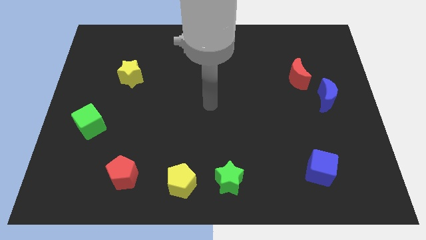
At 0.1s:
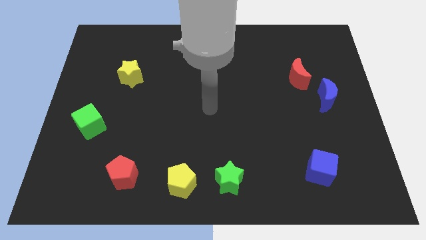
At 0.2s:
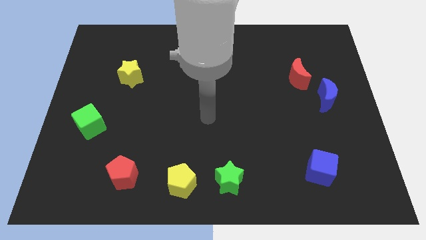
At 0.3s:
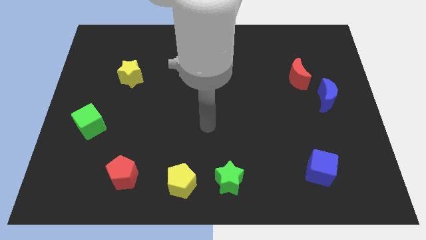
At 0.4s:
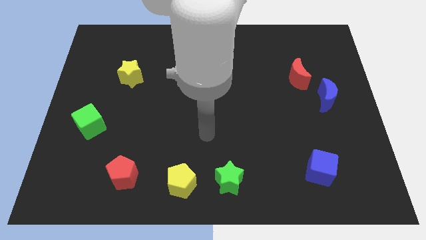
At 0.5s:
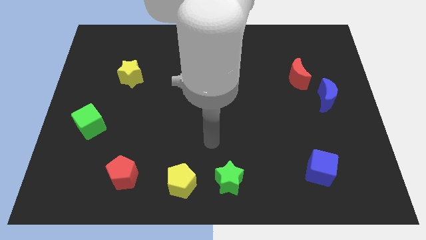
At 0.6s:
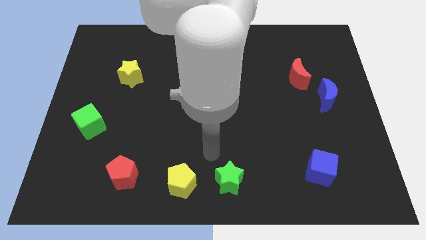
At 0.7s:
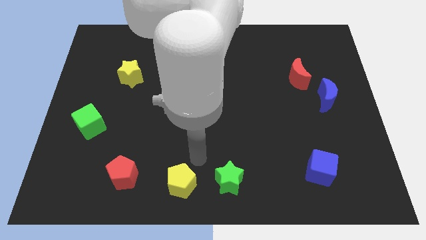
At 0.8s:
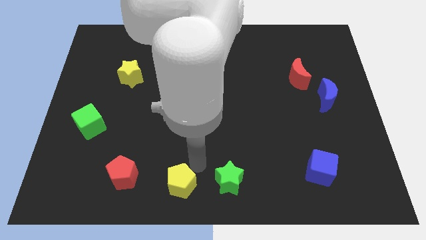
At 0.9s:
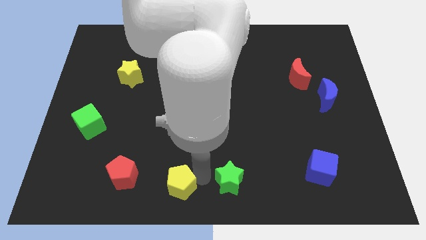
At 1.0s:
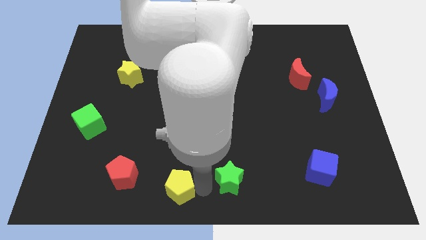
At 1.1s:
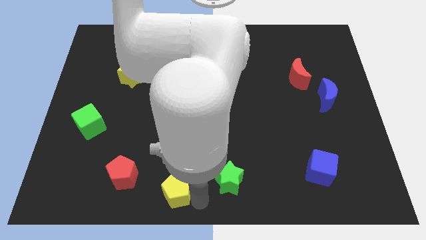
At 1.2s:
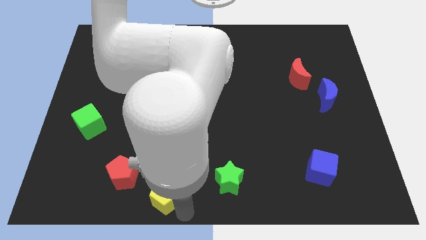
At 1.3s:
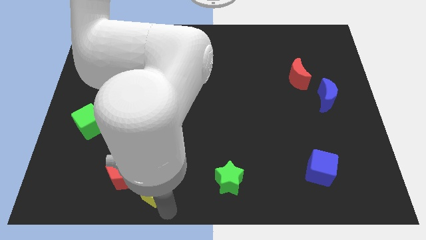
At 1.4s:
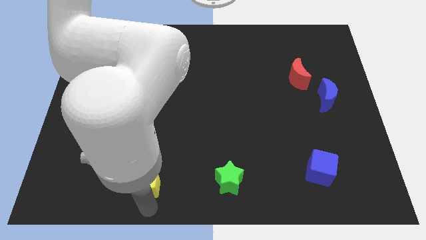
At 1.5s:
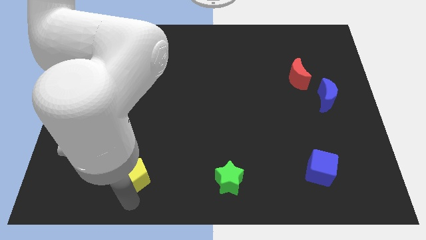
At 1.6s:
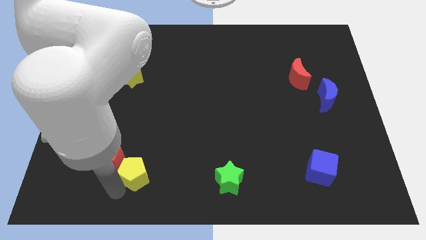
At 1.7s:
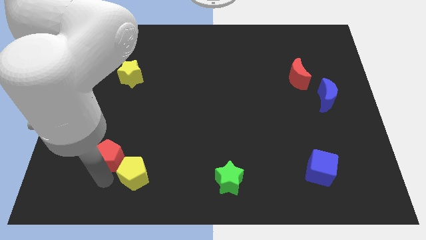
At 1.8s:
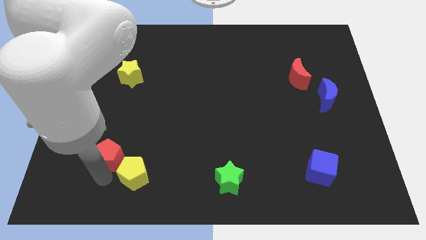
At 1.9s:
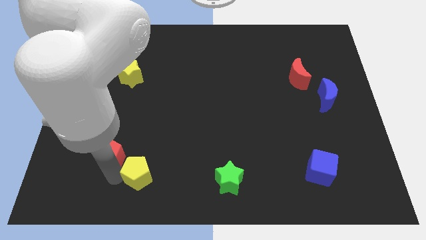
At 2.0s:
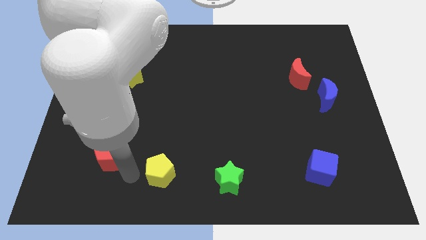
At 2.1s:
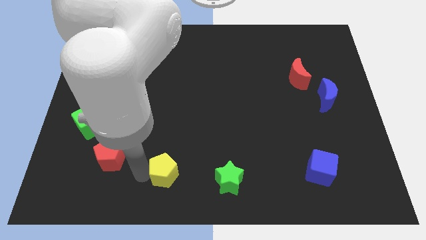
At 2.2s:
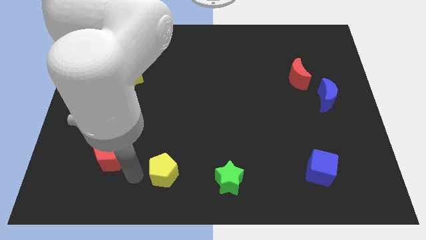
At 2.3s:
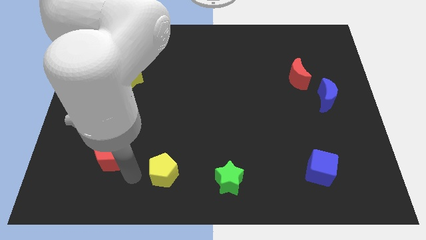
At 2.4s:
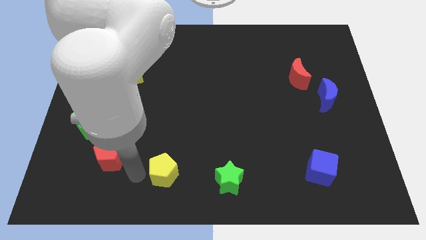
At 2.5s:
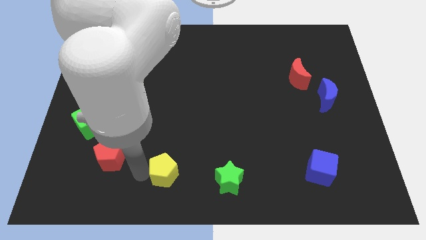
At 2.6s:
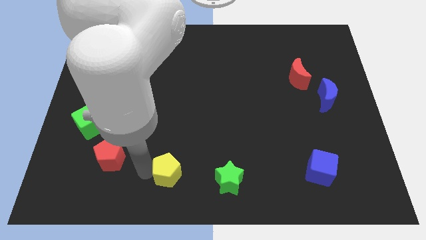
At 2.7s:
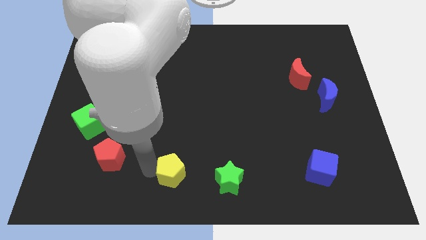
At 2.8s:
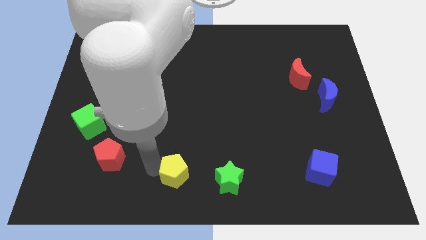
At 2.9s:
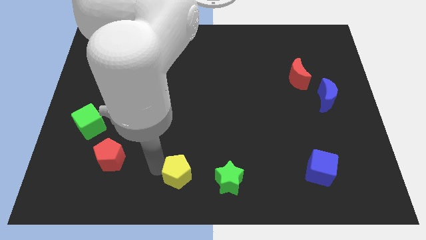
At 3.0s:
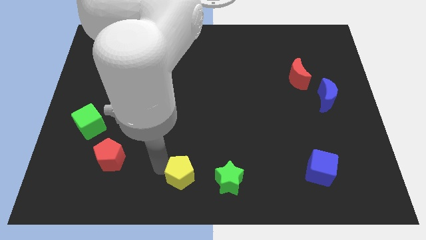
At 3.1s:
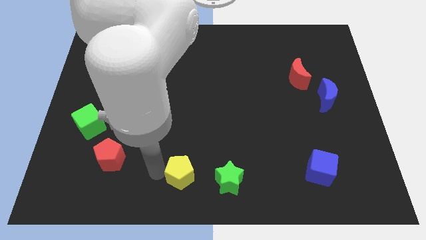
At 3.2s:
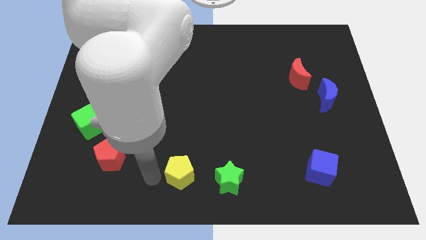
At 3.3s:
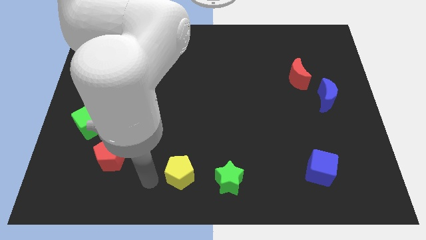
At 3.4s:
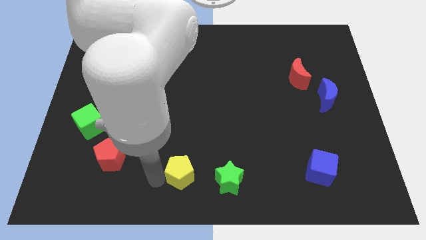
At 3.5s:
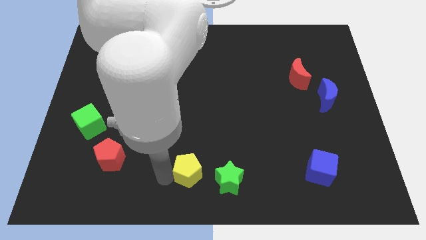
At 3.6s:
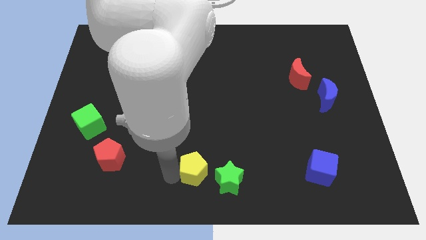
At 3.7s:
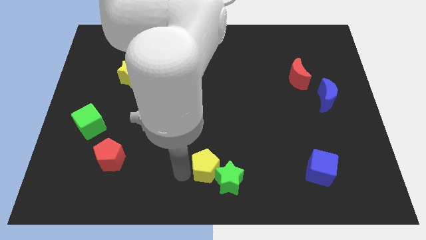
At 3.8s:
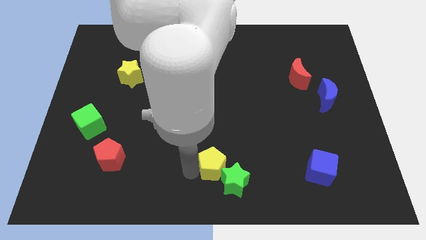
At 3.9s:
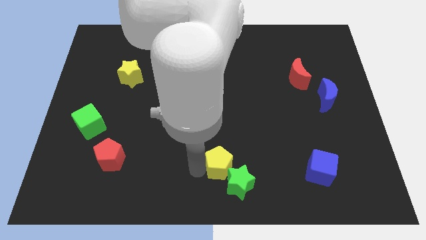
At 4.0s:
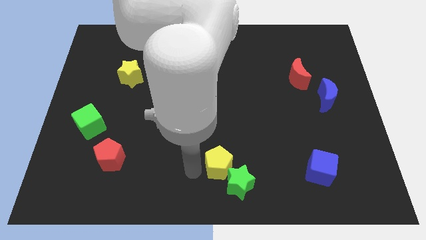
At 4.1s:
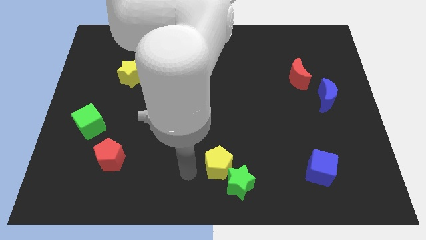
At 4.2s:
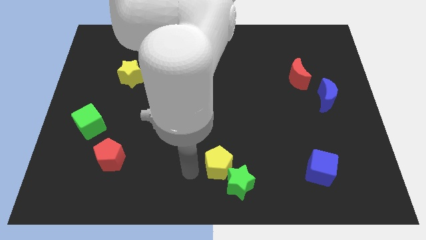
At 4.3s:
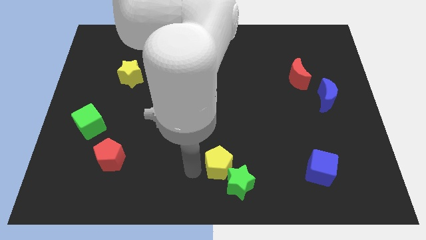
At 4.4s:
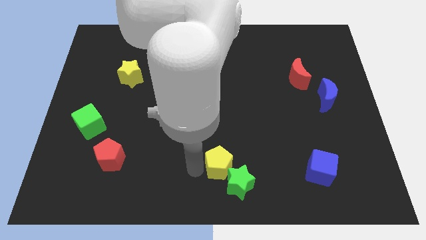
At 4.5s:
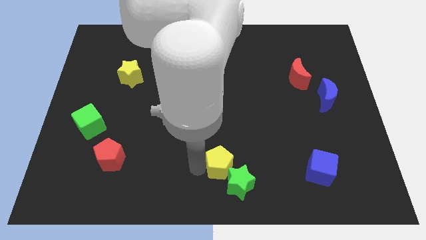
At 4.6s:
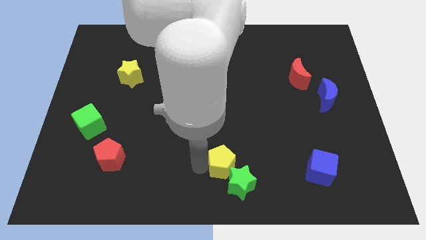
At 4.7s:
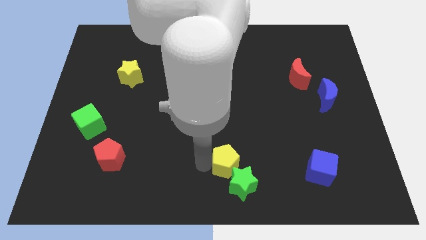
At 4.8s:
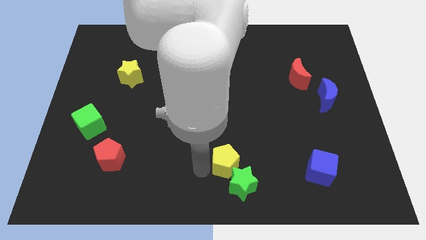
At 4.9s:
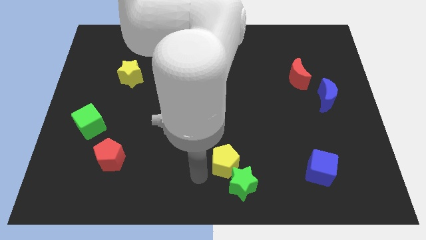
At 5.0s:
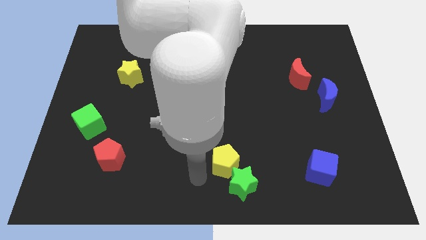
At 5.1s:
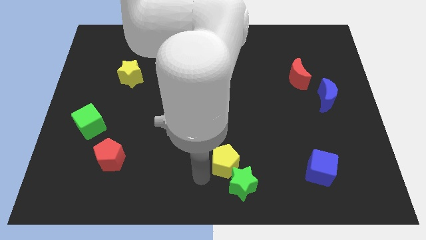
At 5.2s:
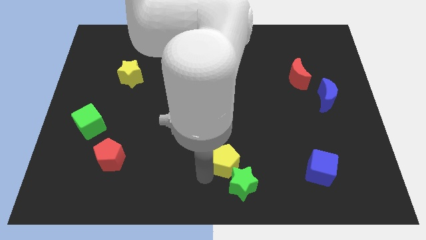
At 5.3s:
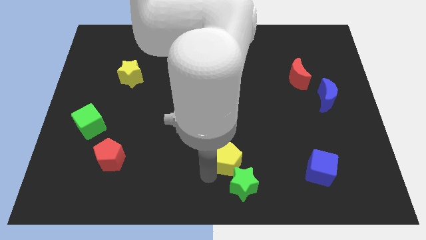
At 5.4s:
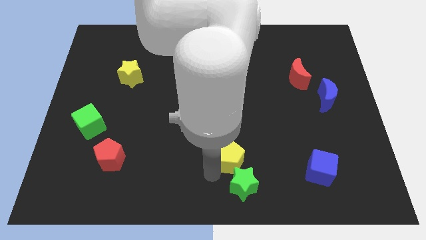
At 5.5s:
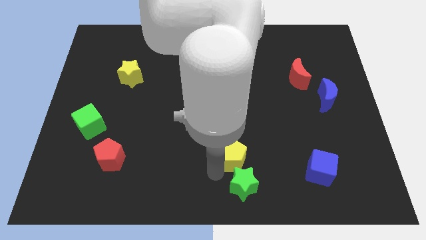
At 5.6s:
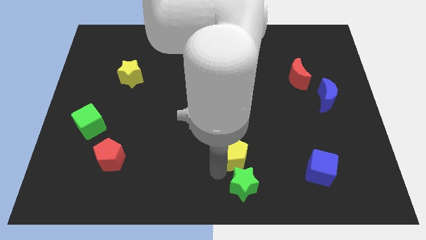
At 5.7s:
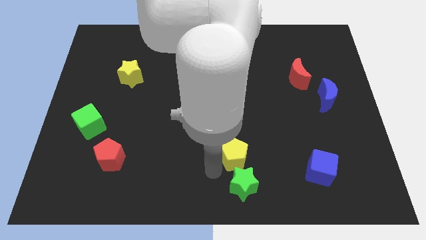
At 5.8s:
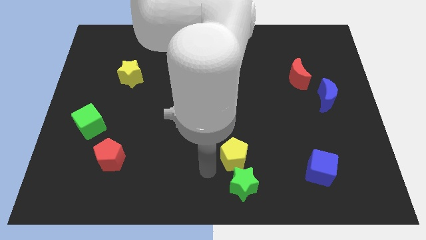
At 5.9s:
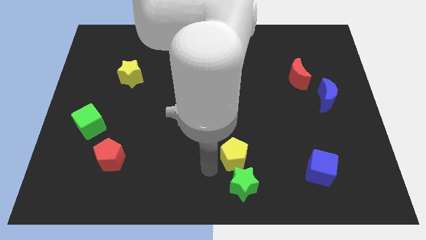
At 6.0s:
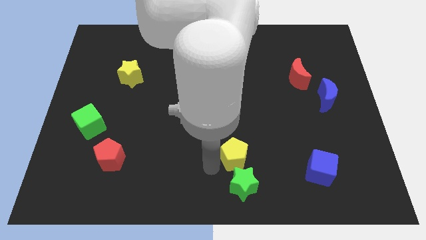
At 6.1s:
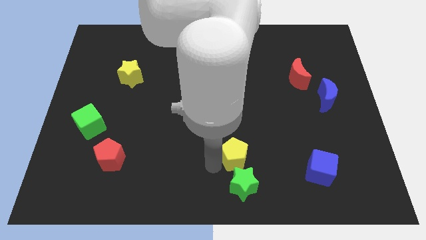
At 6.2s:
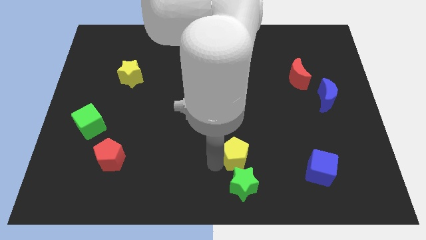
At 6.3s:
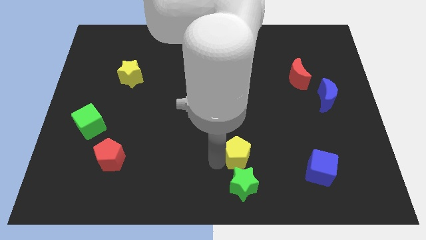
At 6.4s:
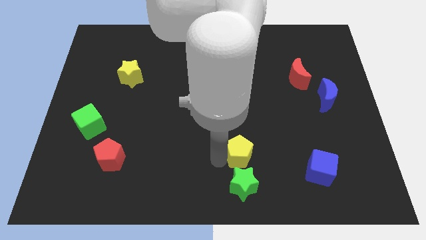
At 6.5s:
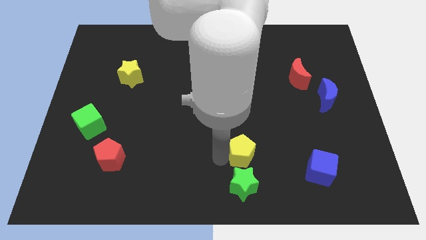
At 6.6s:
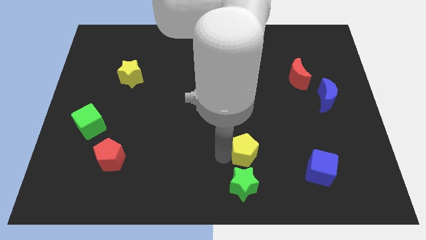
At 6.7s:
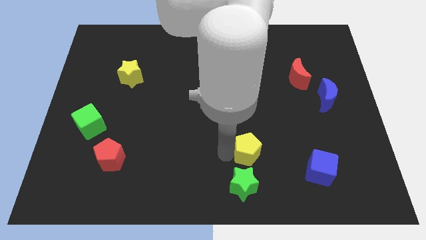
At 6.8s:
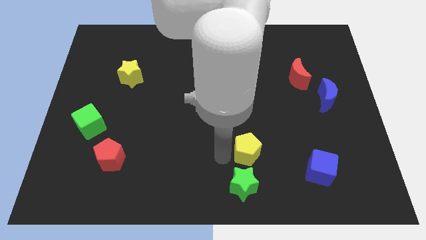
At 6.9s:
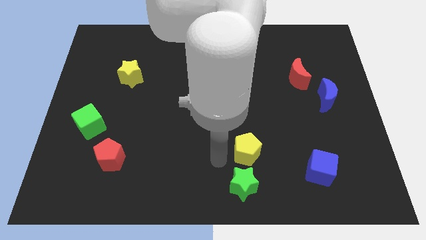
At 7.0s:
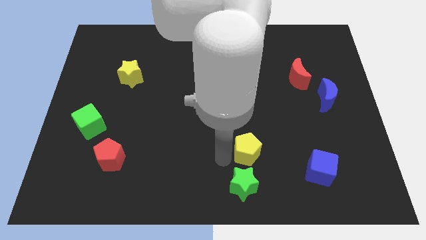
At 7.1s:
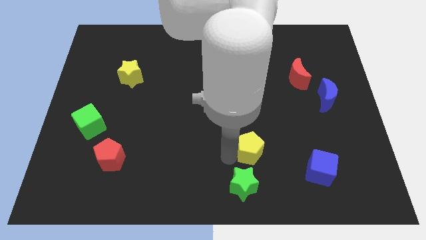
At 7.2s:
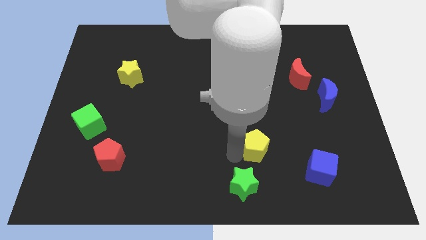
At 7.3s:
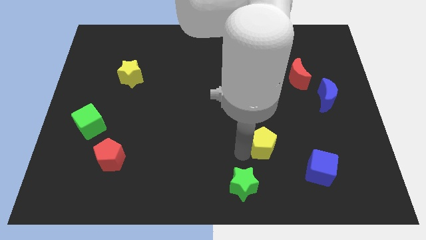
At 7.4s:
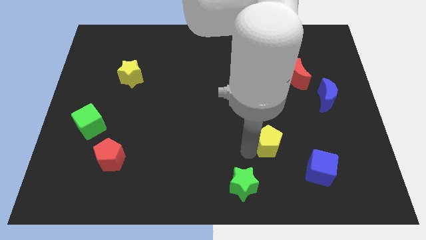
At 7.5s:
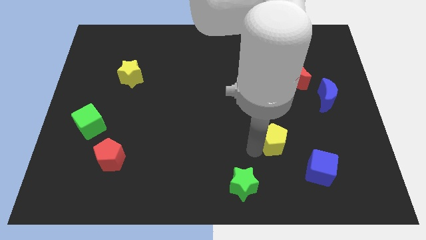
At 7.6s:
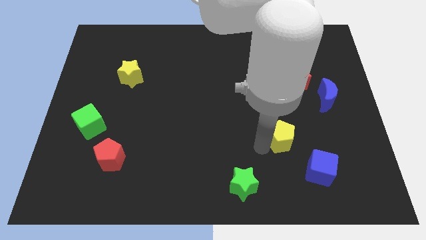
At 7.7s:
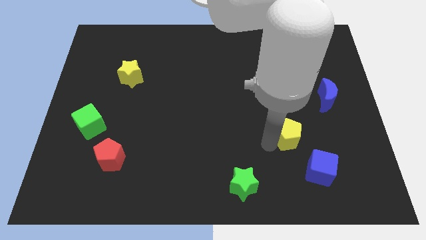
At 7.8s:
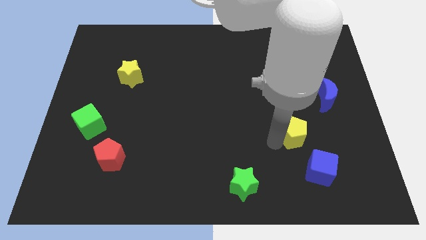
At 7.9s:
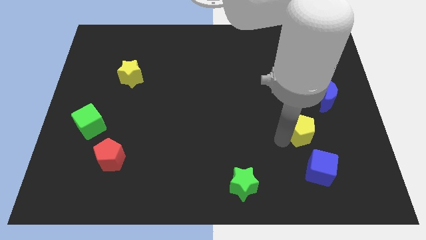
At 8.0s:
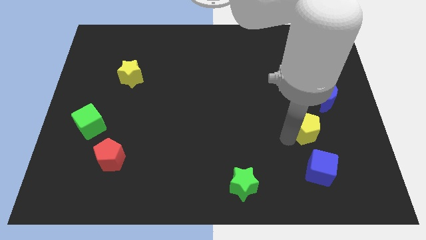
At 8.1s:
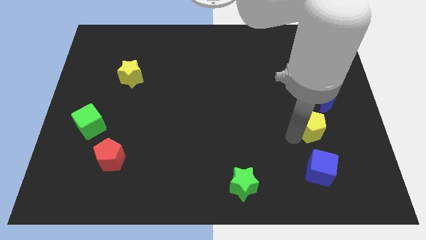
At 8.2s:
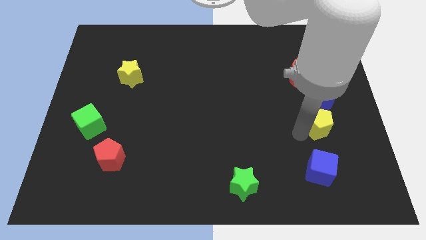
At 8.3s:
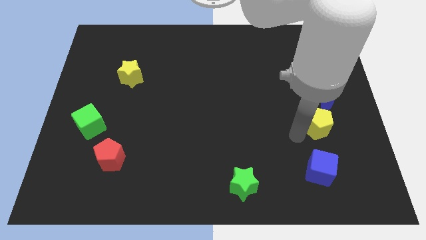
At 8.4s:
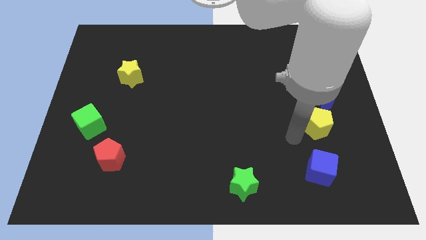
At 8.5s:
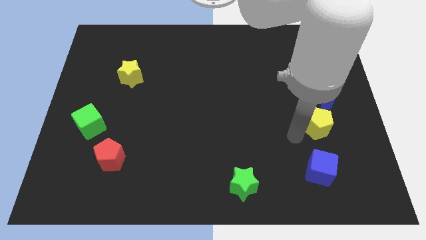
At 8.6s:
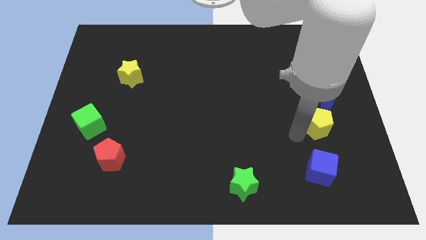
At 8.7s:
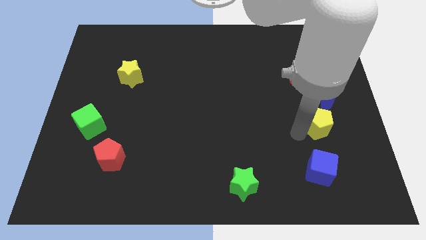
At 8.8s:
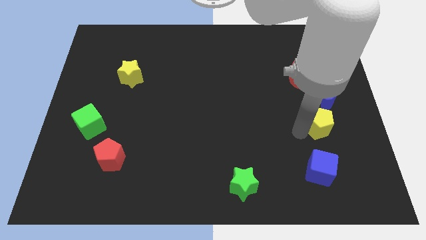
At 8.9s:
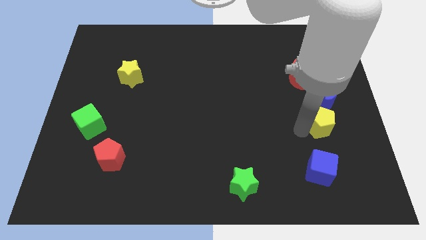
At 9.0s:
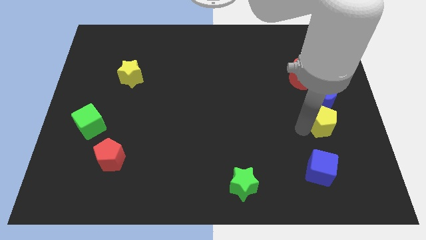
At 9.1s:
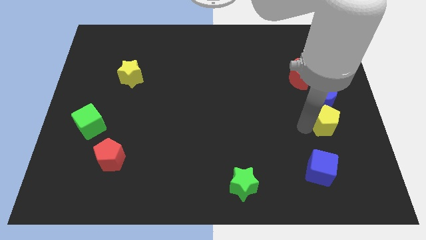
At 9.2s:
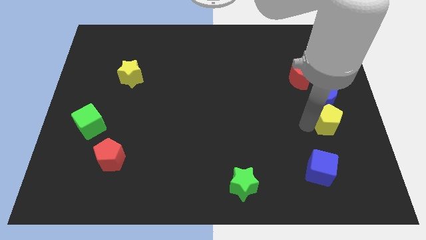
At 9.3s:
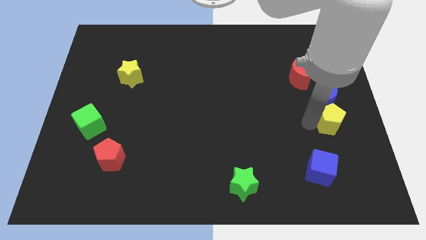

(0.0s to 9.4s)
slide the yellow pentagon to the right side of the board
